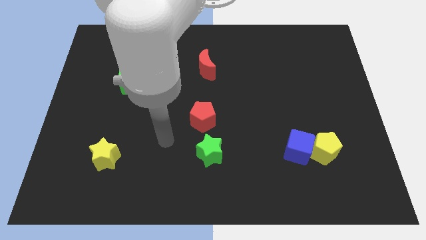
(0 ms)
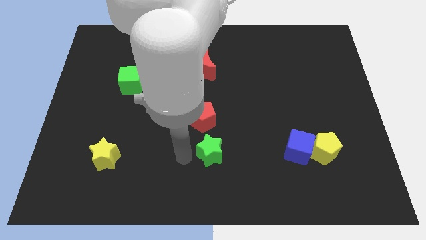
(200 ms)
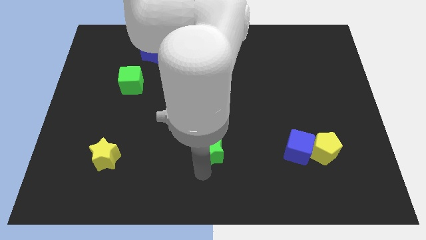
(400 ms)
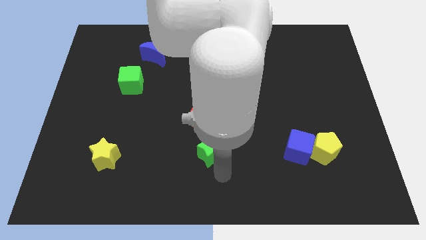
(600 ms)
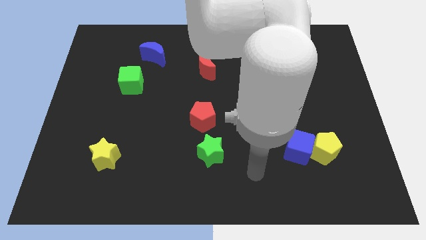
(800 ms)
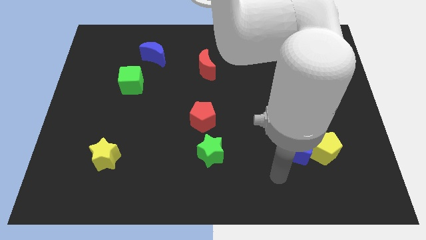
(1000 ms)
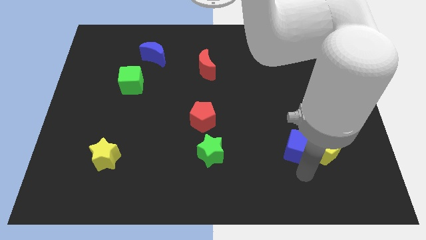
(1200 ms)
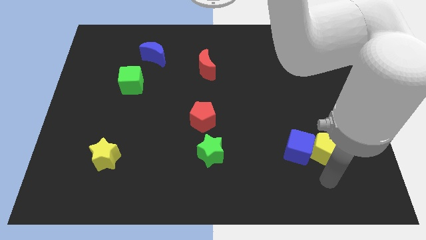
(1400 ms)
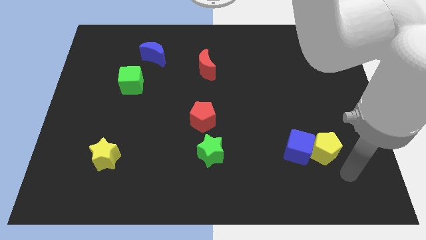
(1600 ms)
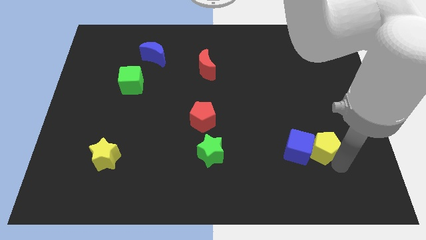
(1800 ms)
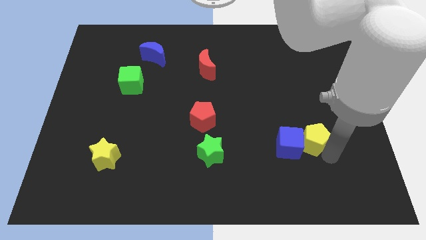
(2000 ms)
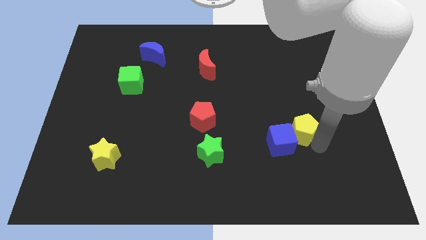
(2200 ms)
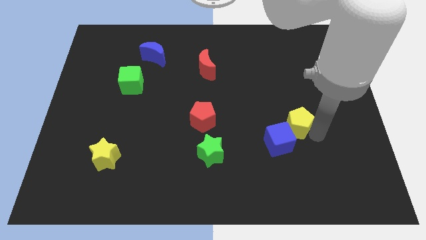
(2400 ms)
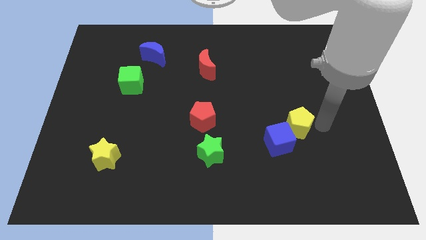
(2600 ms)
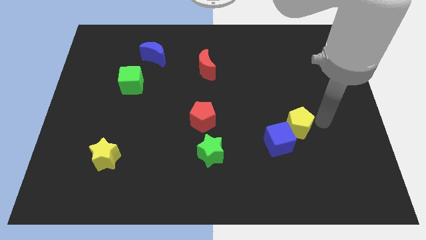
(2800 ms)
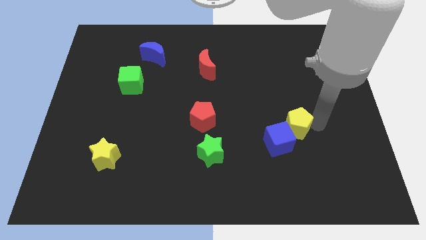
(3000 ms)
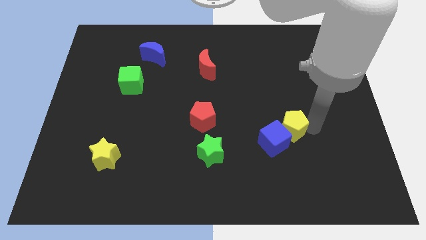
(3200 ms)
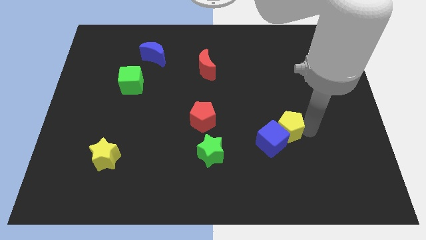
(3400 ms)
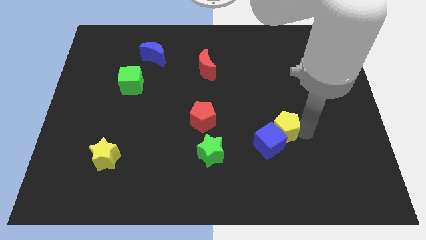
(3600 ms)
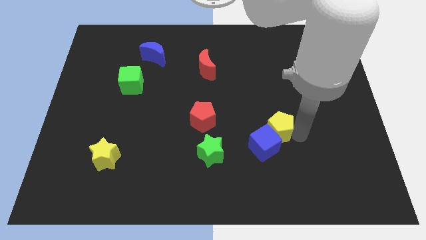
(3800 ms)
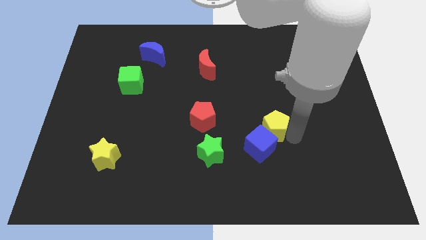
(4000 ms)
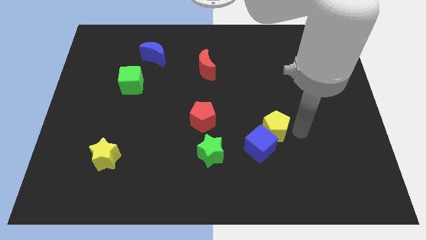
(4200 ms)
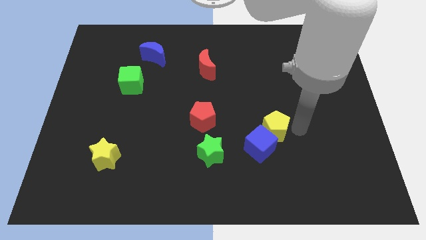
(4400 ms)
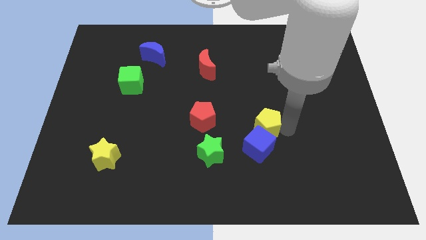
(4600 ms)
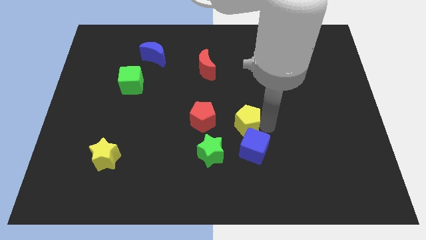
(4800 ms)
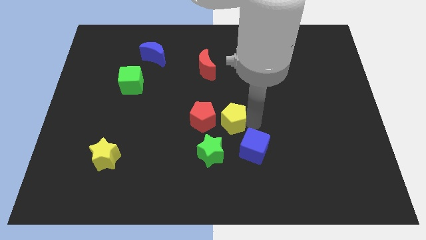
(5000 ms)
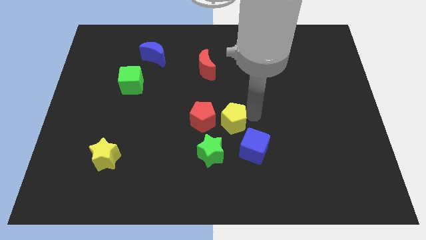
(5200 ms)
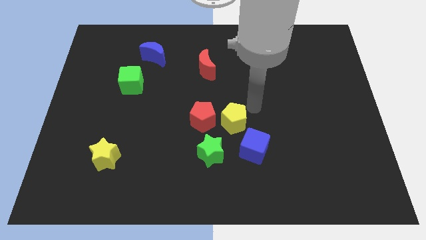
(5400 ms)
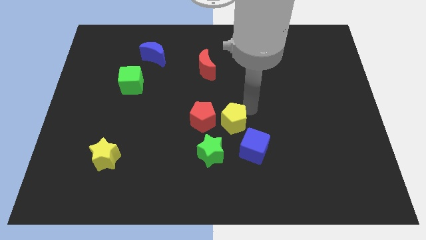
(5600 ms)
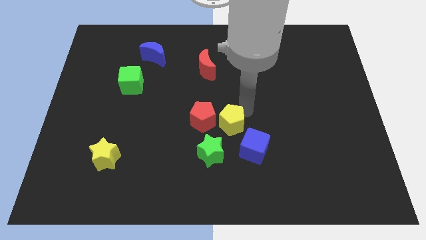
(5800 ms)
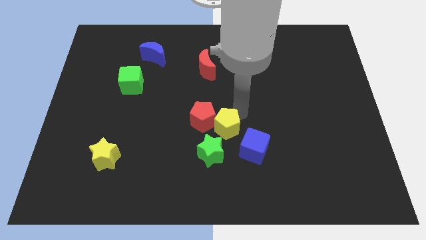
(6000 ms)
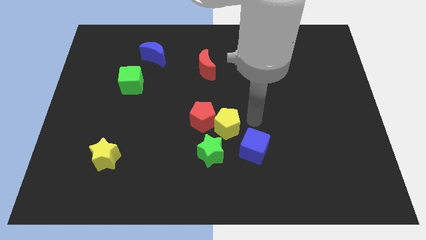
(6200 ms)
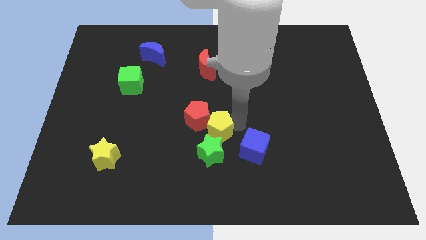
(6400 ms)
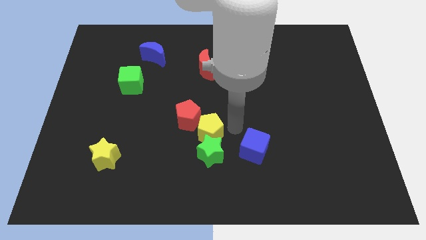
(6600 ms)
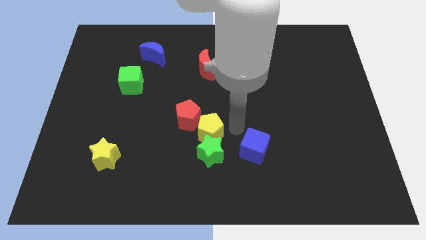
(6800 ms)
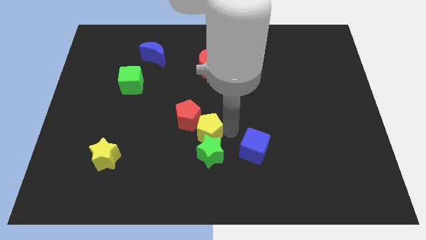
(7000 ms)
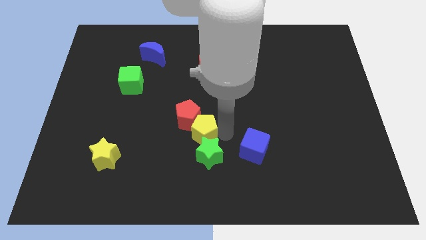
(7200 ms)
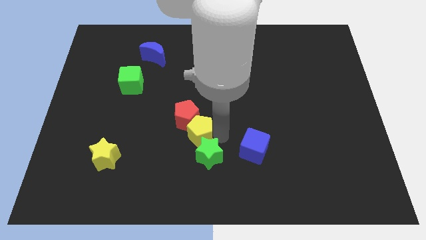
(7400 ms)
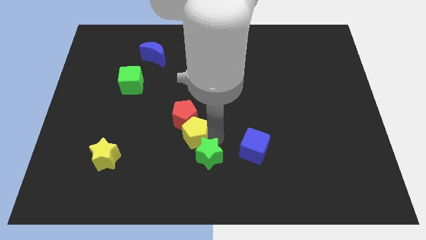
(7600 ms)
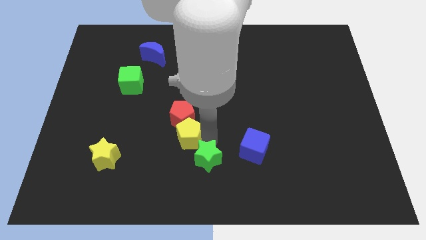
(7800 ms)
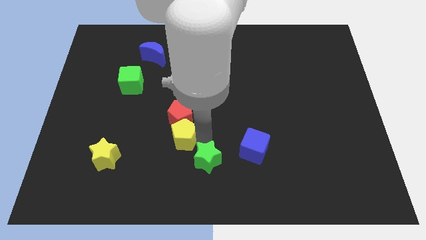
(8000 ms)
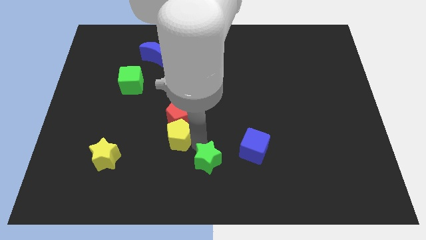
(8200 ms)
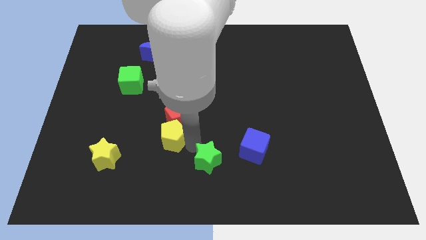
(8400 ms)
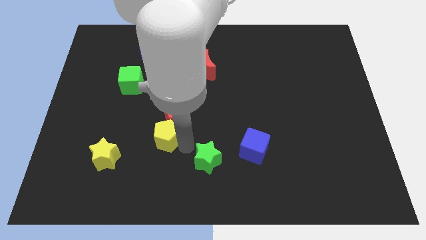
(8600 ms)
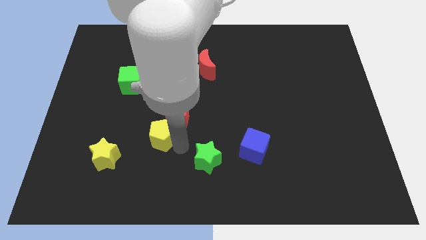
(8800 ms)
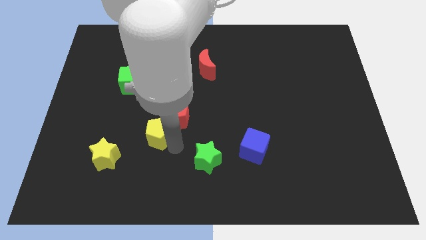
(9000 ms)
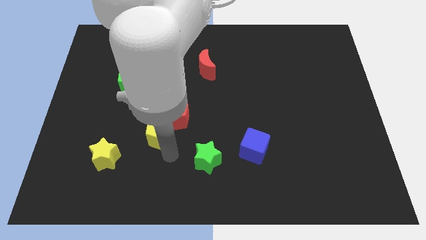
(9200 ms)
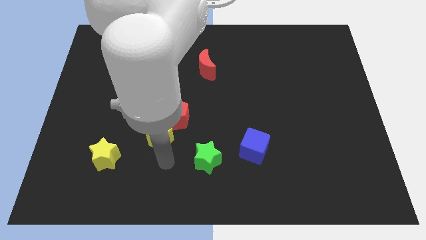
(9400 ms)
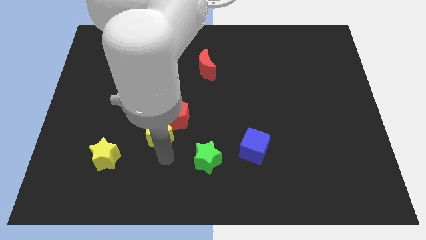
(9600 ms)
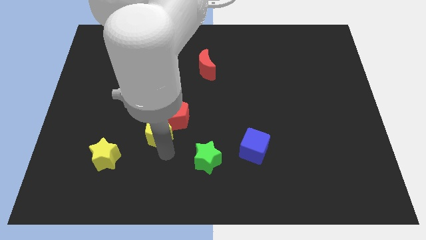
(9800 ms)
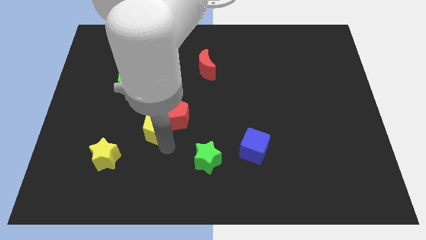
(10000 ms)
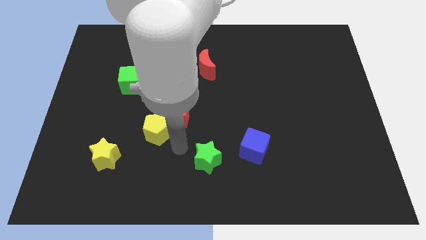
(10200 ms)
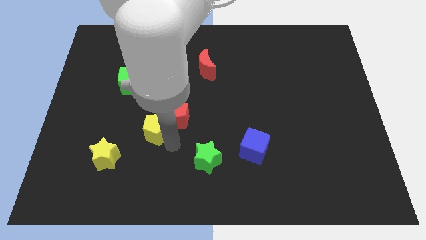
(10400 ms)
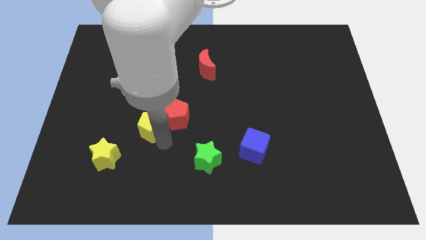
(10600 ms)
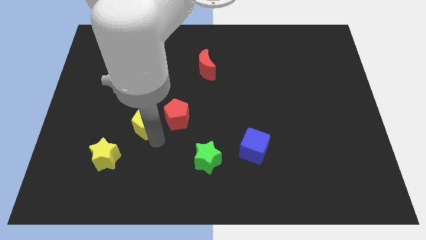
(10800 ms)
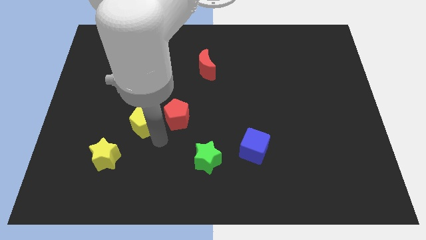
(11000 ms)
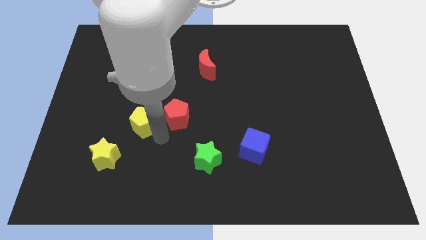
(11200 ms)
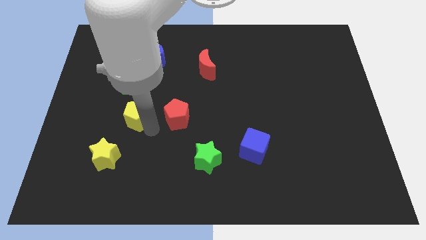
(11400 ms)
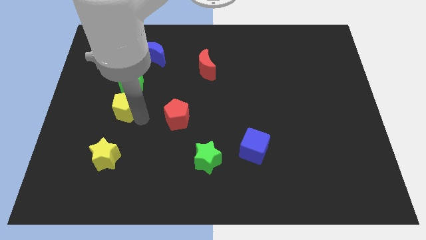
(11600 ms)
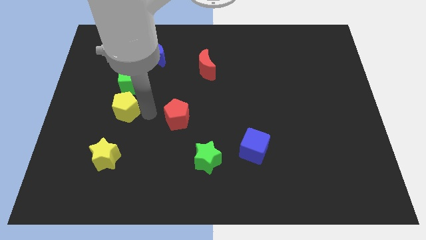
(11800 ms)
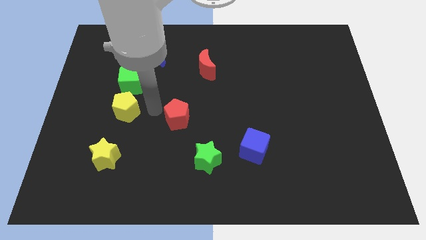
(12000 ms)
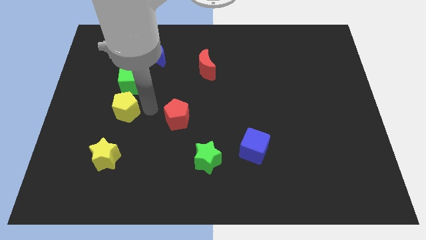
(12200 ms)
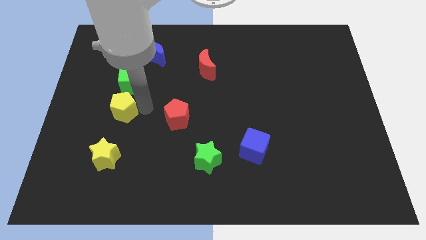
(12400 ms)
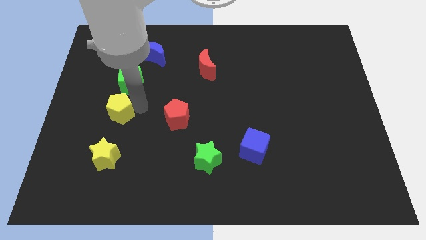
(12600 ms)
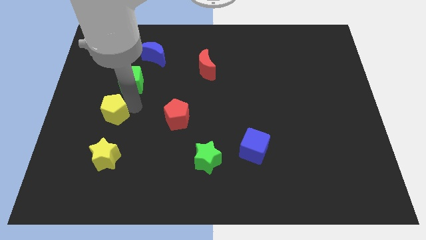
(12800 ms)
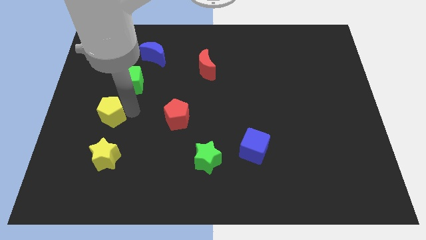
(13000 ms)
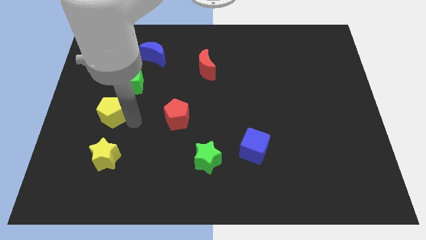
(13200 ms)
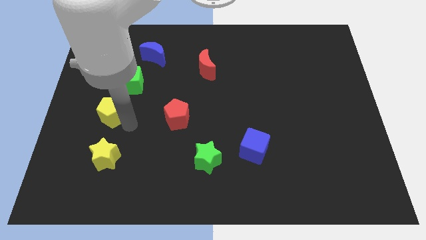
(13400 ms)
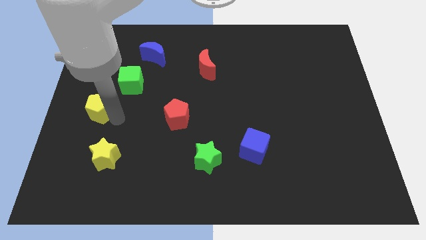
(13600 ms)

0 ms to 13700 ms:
push the yellow pentagon to the center left
